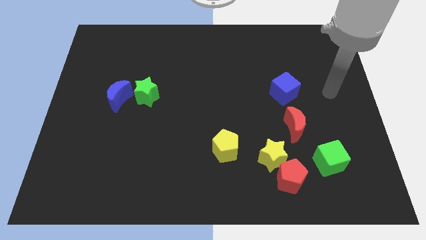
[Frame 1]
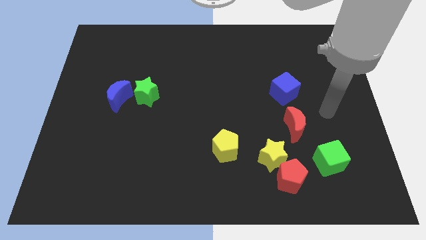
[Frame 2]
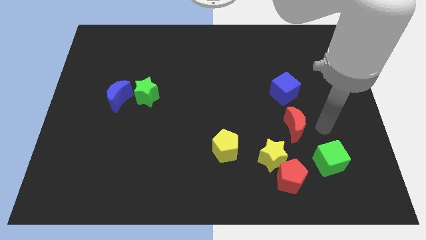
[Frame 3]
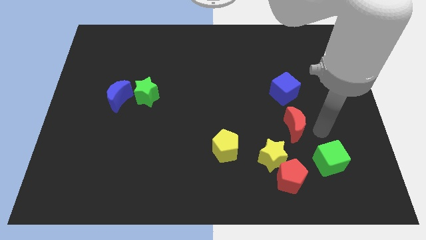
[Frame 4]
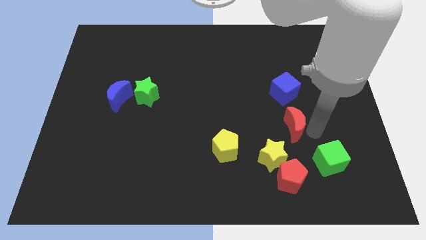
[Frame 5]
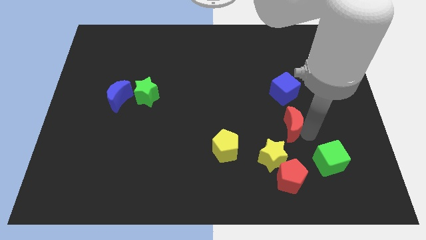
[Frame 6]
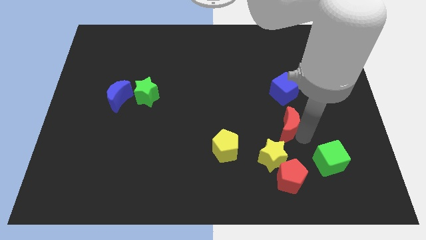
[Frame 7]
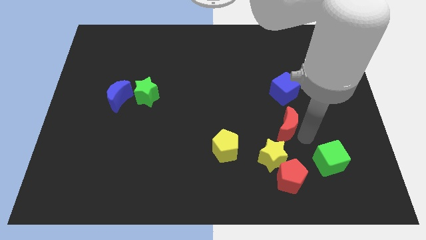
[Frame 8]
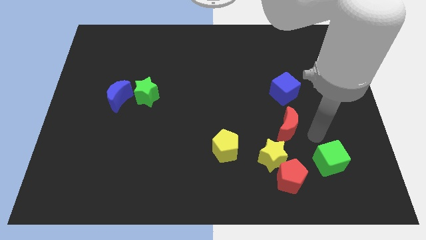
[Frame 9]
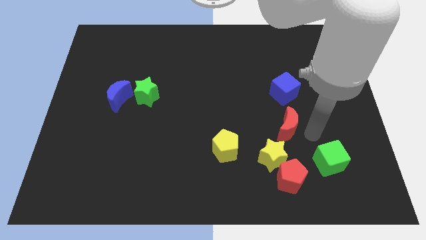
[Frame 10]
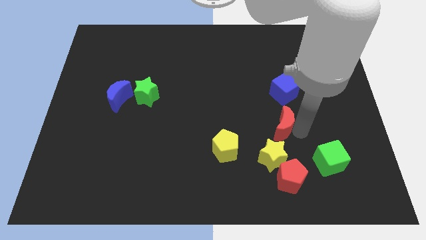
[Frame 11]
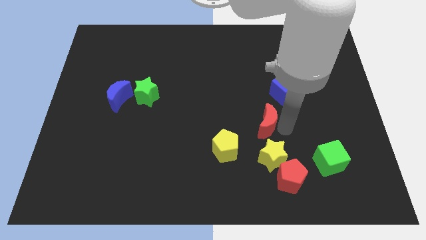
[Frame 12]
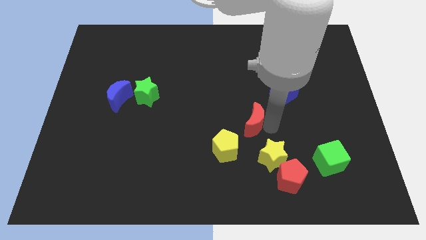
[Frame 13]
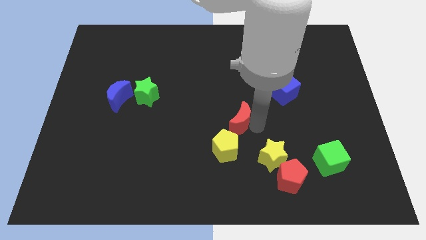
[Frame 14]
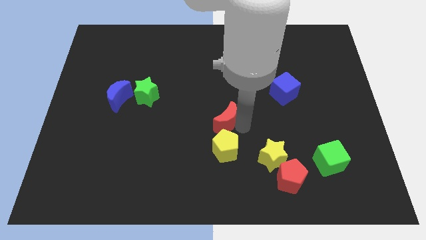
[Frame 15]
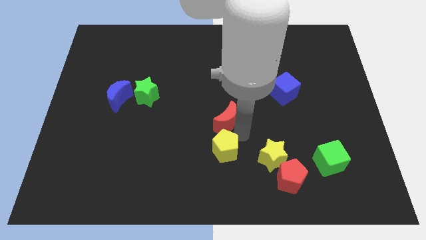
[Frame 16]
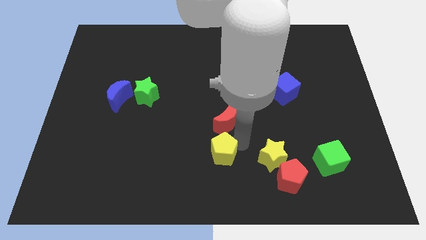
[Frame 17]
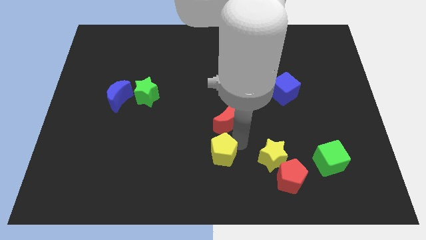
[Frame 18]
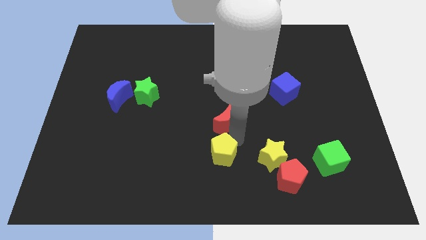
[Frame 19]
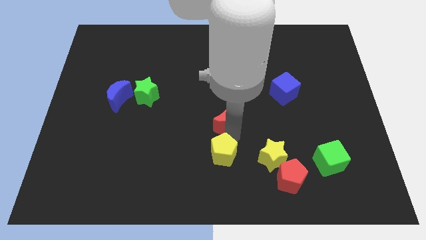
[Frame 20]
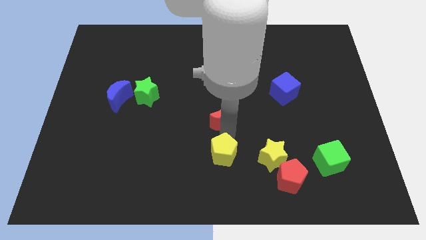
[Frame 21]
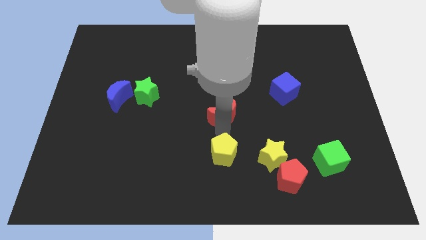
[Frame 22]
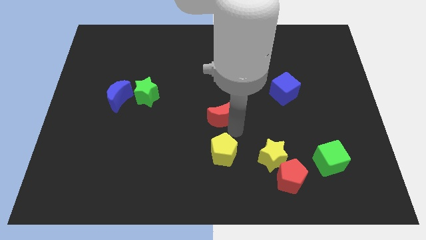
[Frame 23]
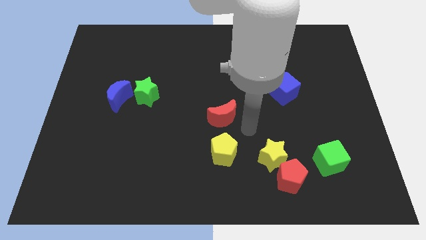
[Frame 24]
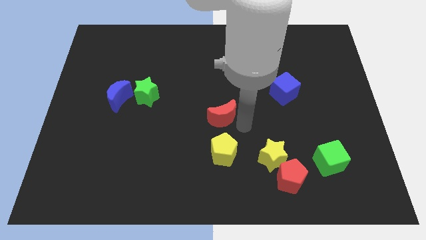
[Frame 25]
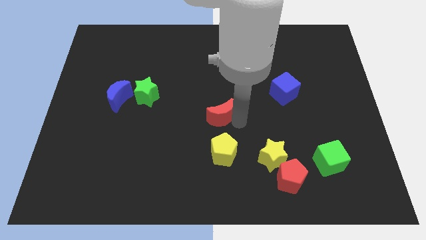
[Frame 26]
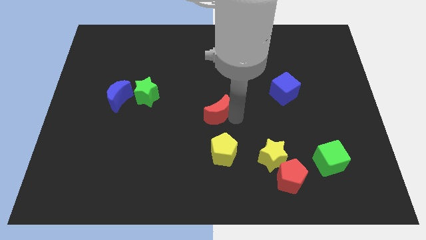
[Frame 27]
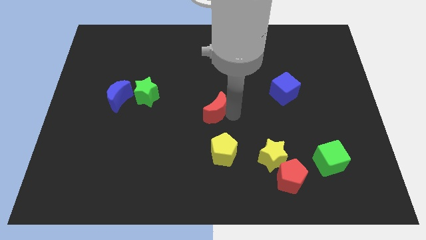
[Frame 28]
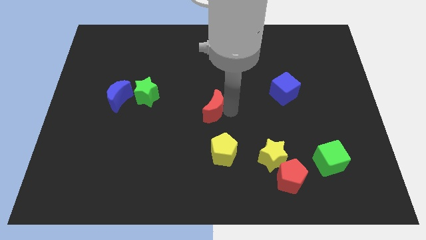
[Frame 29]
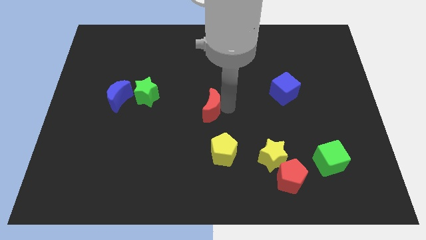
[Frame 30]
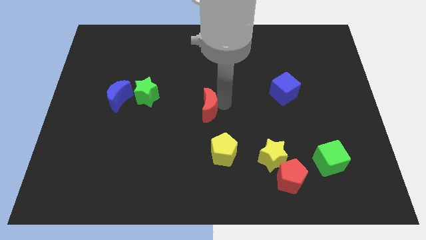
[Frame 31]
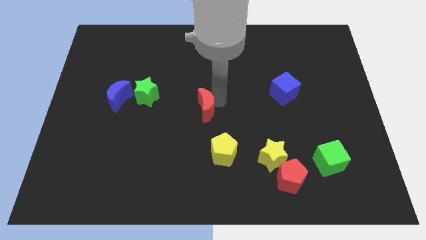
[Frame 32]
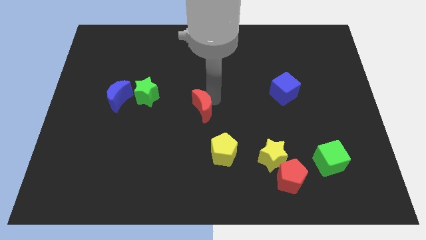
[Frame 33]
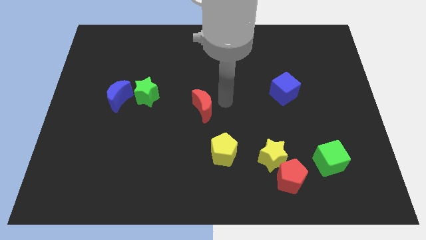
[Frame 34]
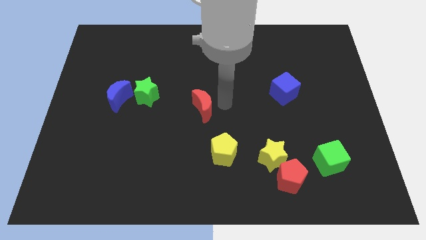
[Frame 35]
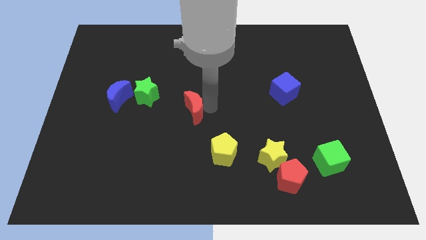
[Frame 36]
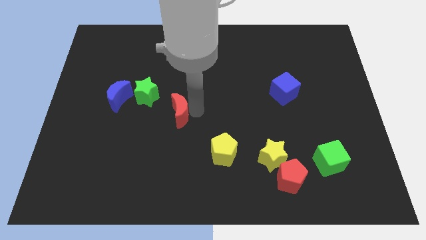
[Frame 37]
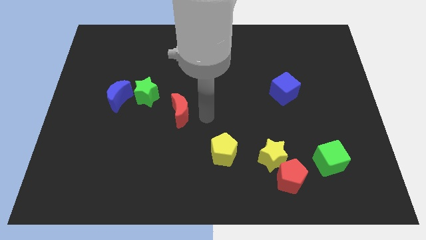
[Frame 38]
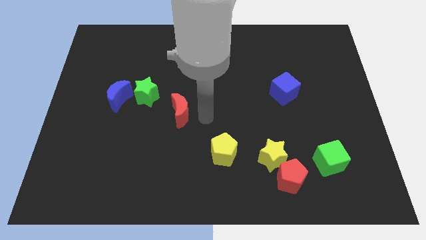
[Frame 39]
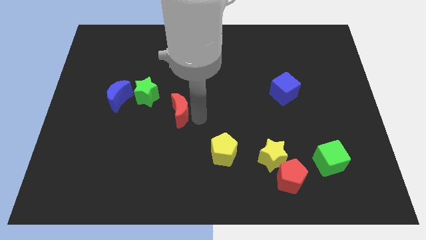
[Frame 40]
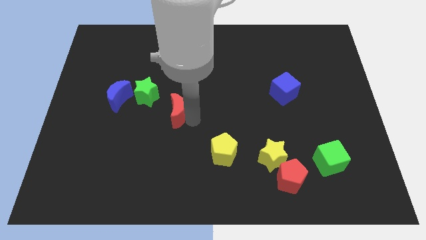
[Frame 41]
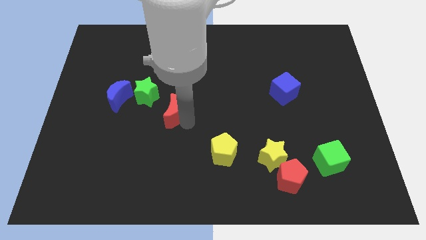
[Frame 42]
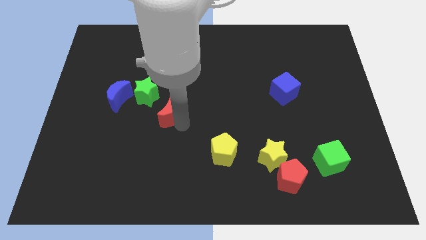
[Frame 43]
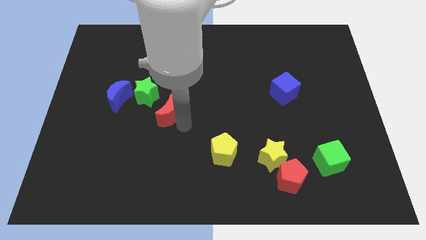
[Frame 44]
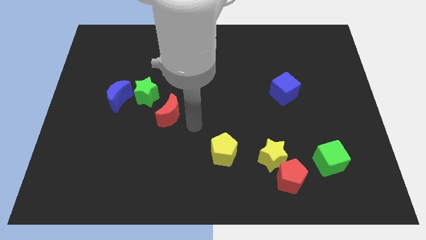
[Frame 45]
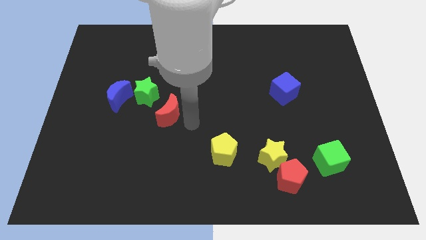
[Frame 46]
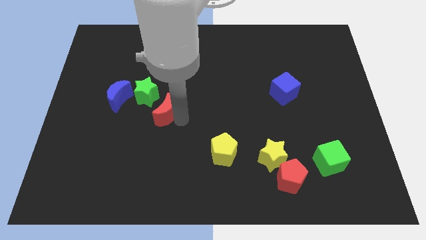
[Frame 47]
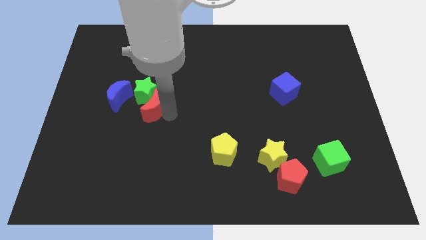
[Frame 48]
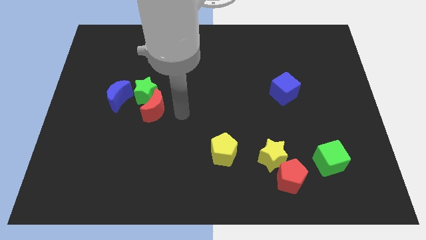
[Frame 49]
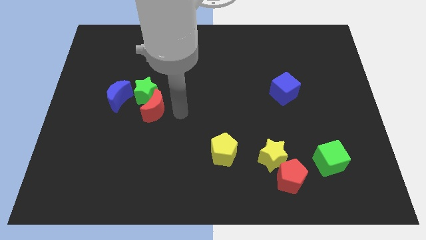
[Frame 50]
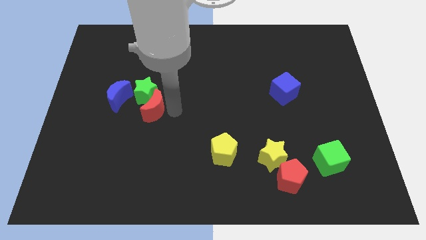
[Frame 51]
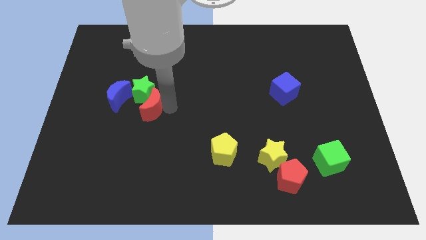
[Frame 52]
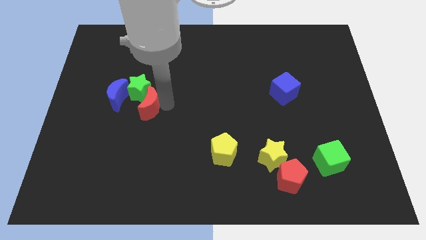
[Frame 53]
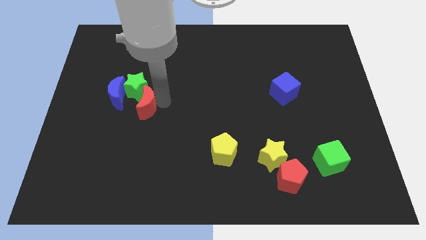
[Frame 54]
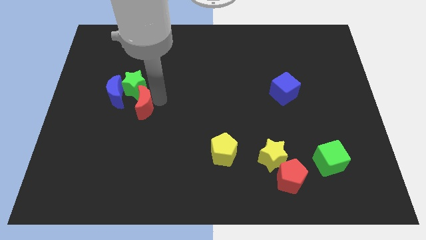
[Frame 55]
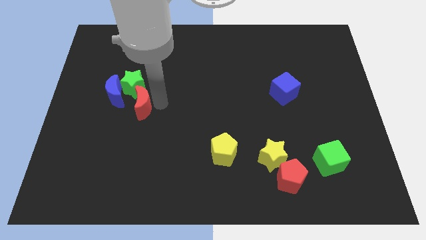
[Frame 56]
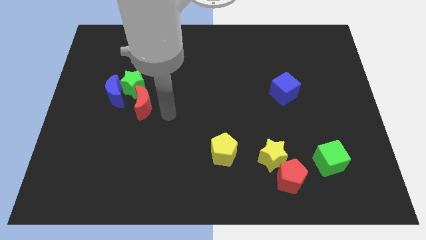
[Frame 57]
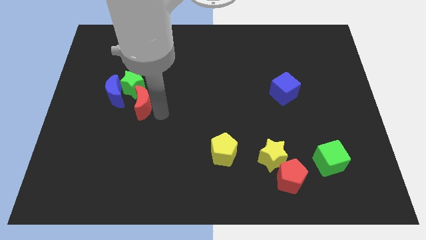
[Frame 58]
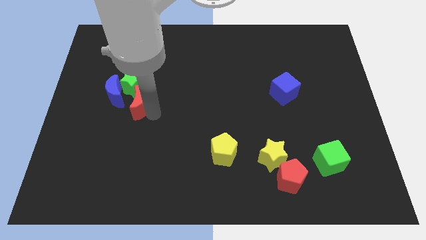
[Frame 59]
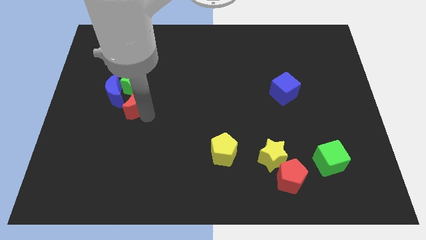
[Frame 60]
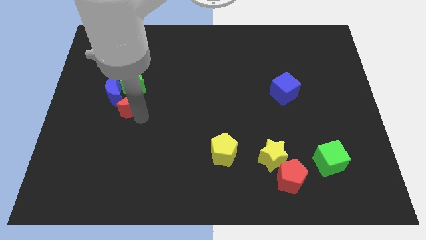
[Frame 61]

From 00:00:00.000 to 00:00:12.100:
push the red moon next to the blue moon

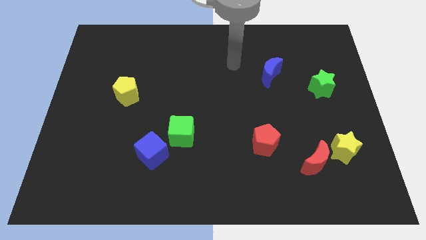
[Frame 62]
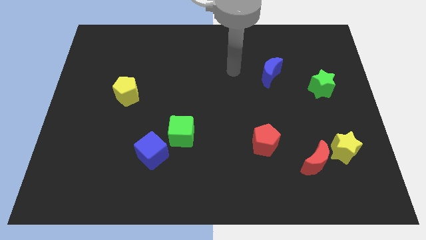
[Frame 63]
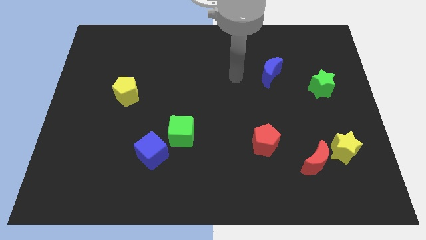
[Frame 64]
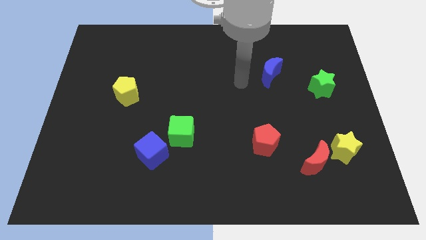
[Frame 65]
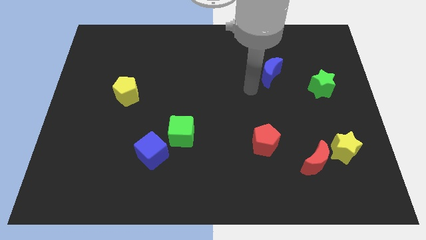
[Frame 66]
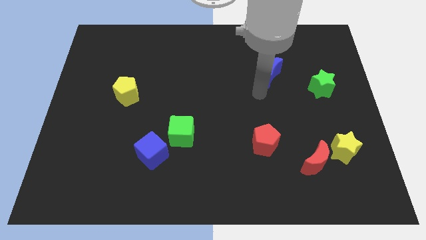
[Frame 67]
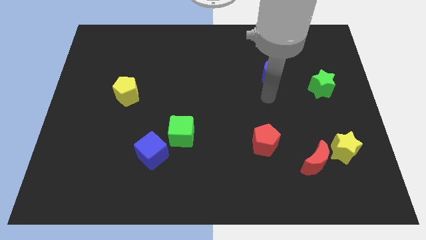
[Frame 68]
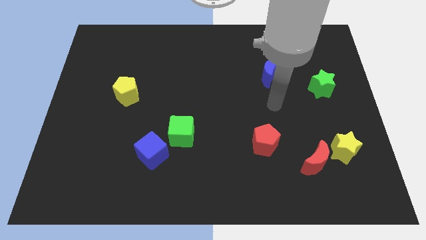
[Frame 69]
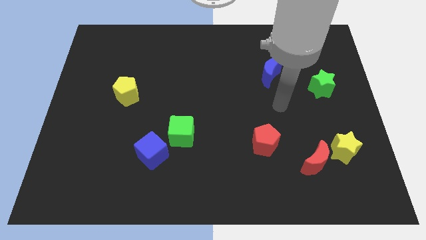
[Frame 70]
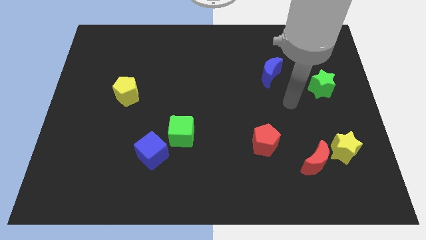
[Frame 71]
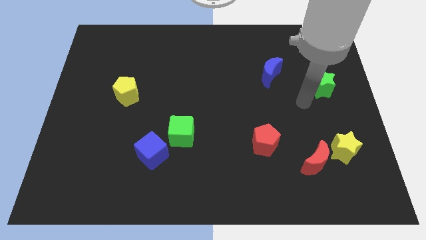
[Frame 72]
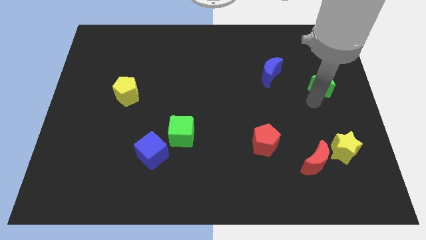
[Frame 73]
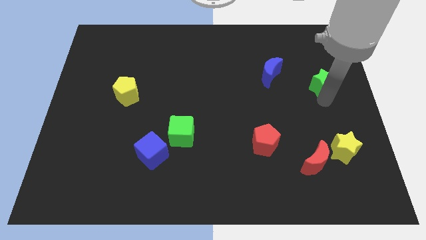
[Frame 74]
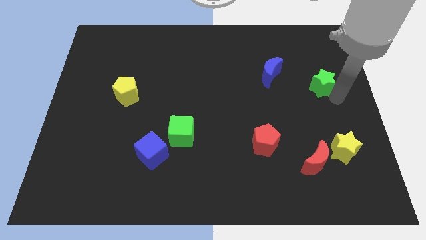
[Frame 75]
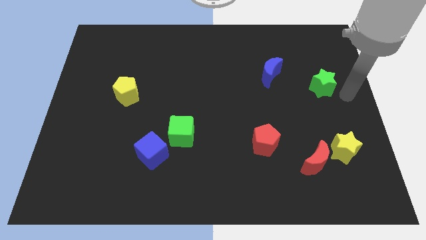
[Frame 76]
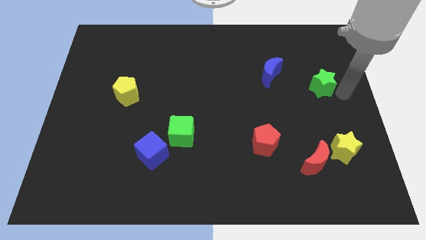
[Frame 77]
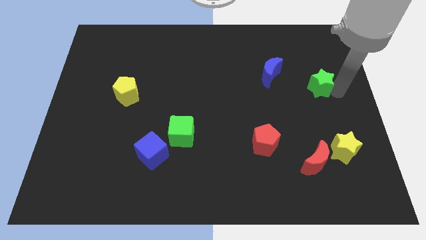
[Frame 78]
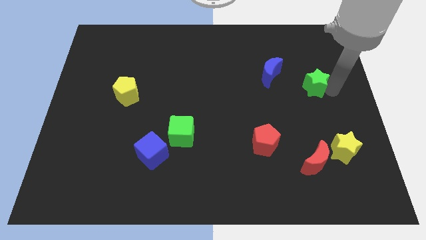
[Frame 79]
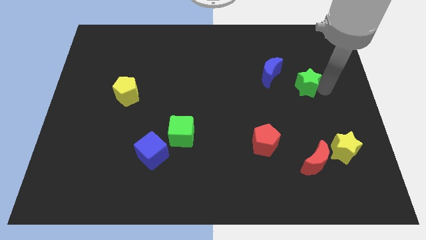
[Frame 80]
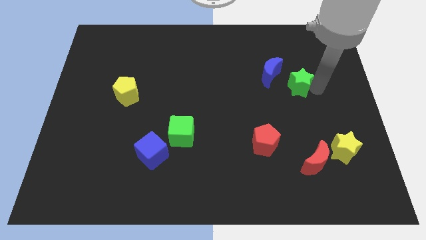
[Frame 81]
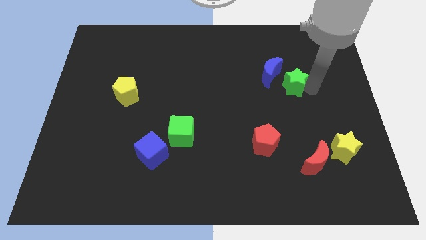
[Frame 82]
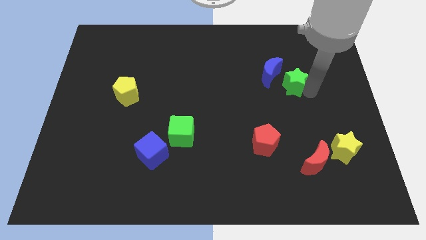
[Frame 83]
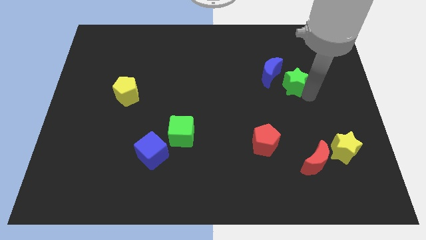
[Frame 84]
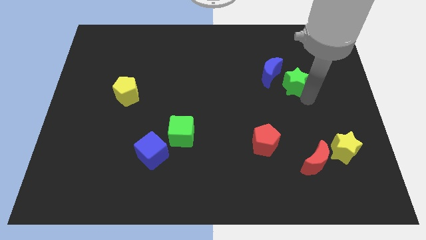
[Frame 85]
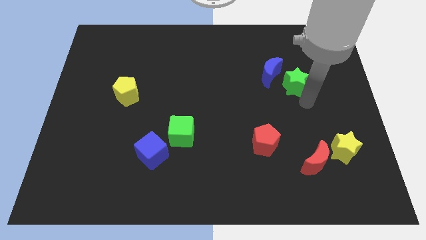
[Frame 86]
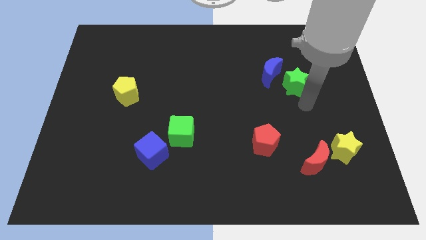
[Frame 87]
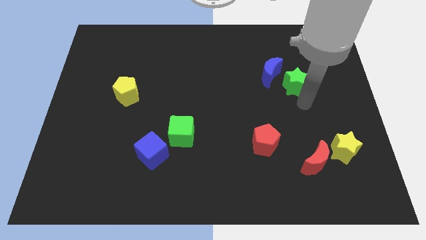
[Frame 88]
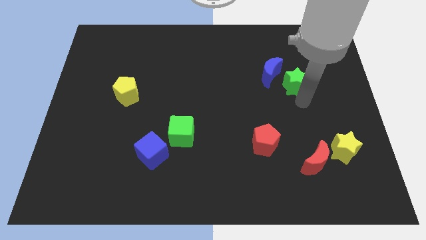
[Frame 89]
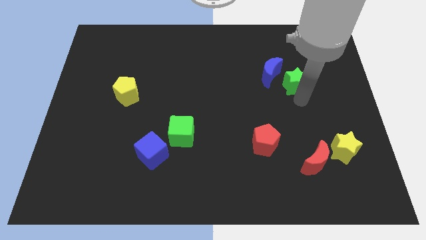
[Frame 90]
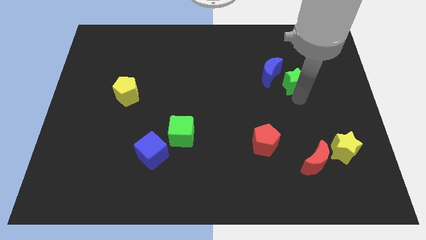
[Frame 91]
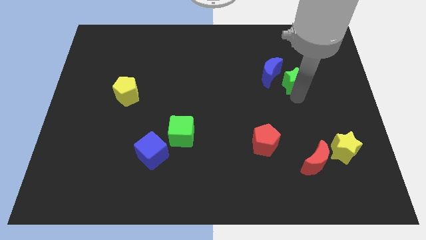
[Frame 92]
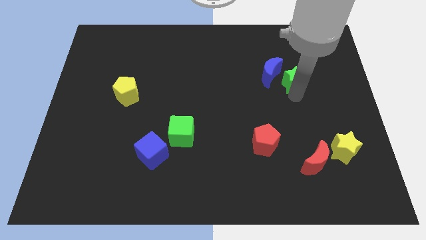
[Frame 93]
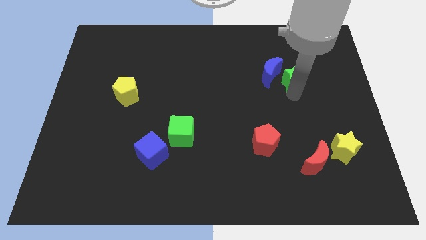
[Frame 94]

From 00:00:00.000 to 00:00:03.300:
slide the green star next to the blue moon
